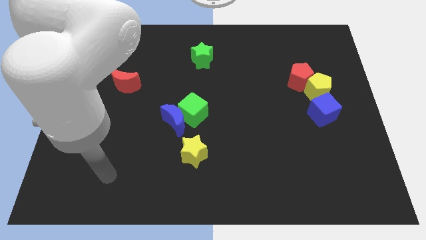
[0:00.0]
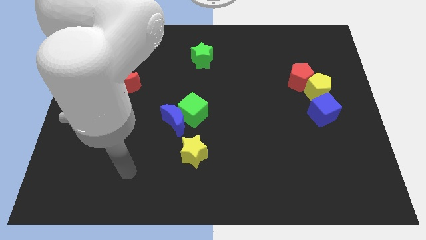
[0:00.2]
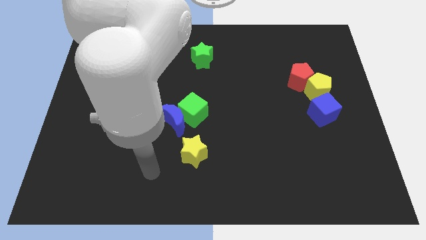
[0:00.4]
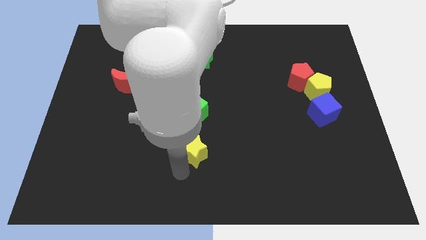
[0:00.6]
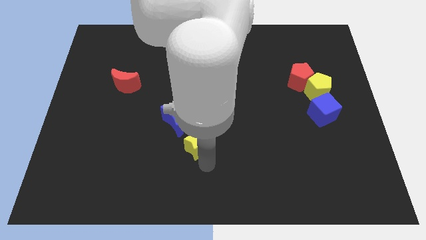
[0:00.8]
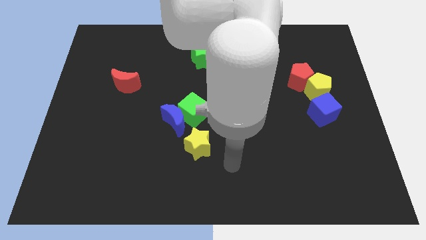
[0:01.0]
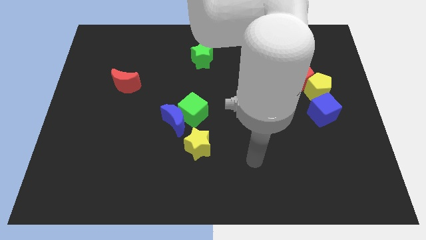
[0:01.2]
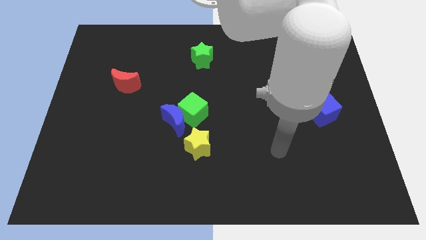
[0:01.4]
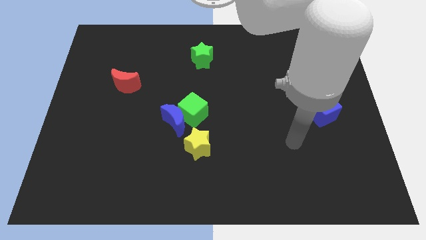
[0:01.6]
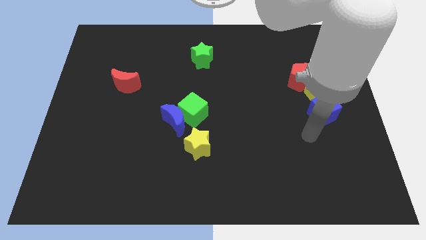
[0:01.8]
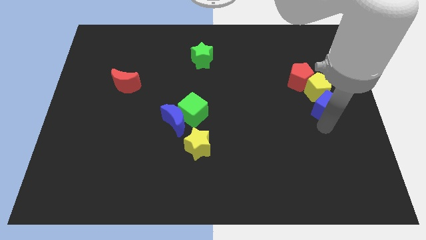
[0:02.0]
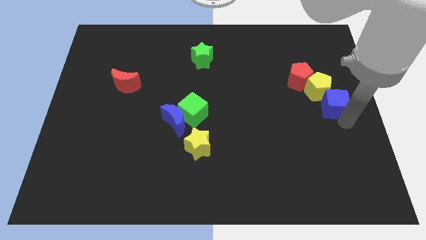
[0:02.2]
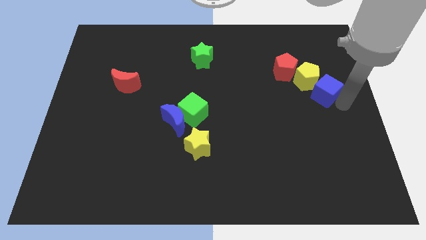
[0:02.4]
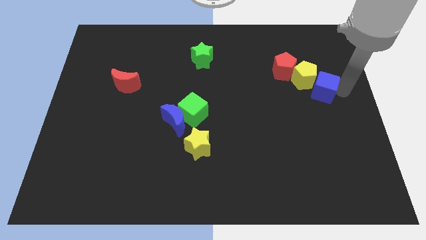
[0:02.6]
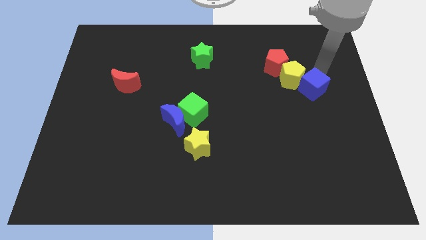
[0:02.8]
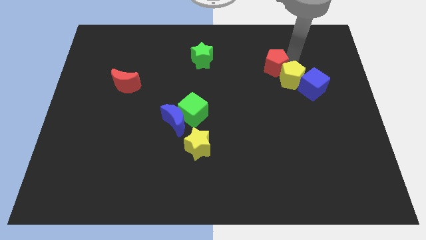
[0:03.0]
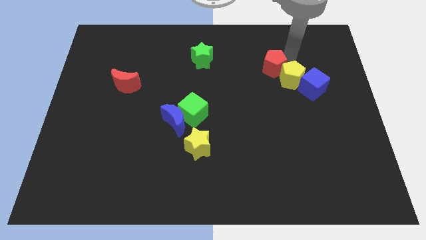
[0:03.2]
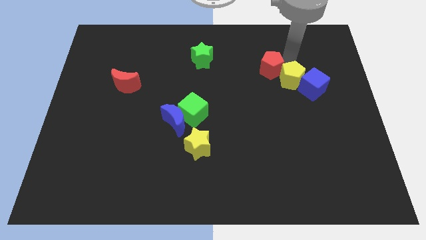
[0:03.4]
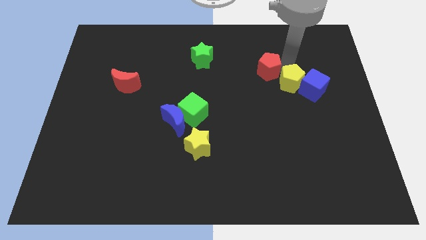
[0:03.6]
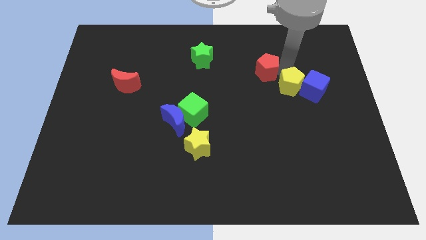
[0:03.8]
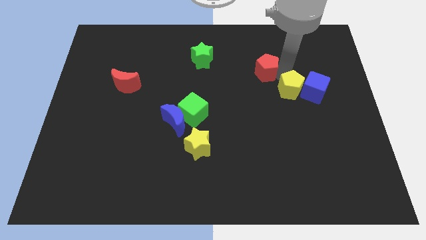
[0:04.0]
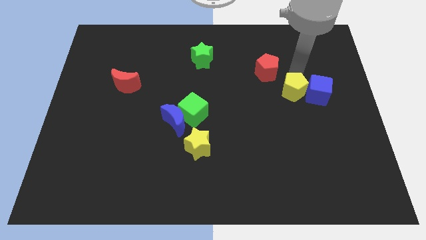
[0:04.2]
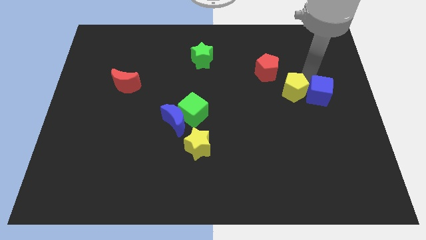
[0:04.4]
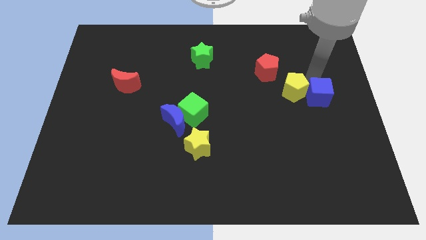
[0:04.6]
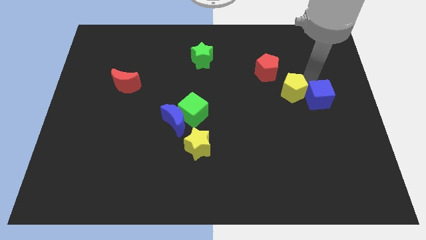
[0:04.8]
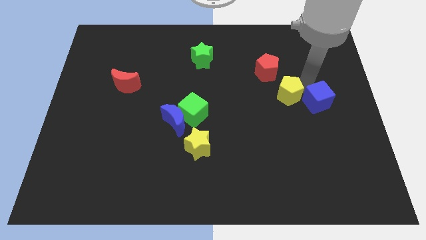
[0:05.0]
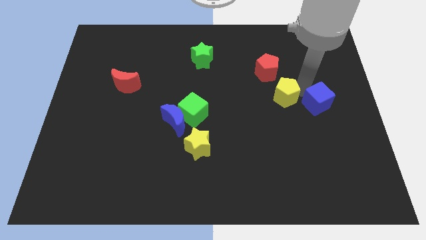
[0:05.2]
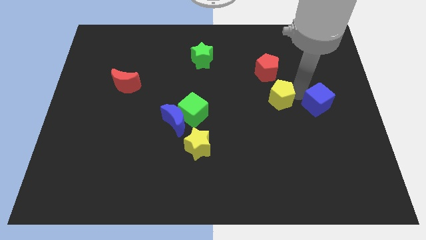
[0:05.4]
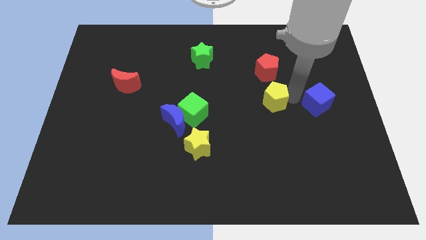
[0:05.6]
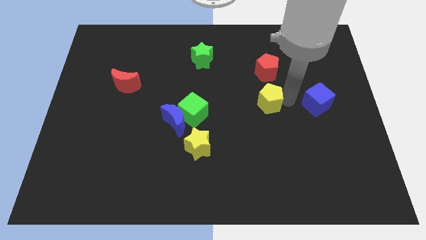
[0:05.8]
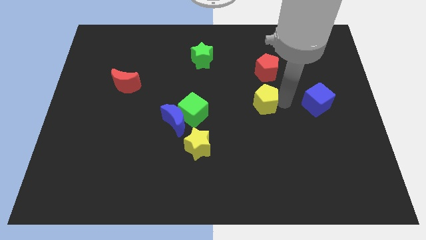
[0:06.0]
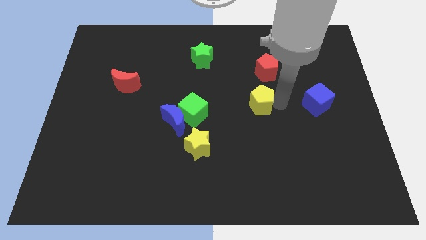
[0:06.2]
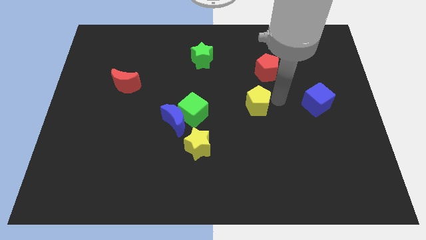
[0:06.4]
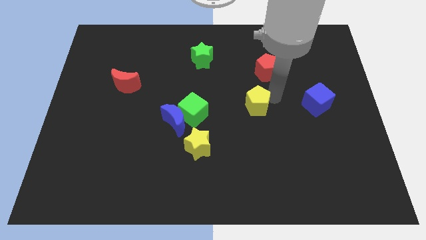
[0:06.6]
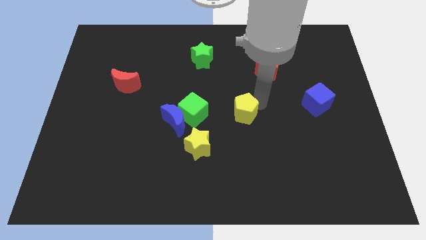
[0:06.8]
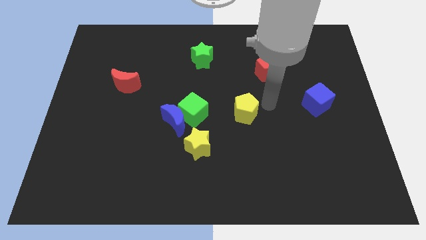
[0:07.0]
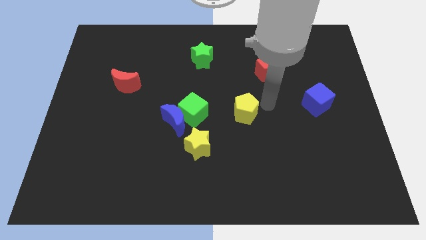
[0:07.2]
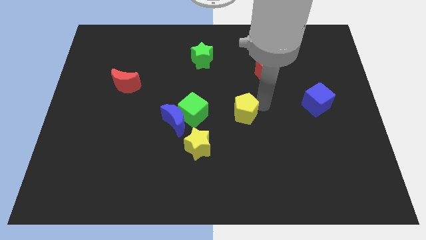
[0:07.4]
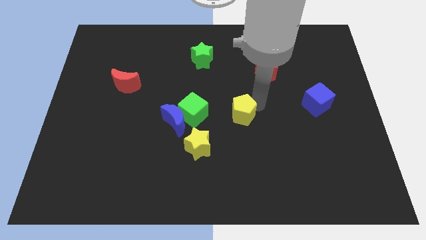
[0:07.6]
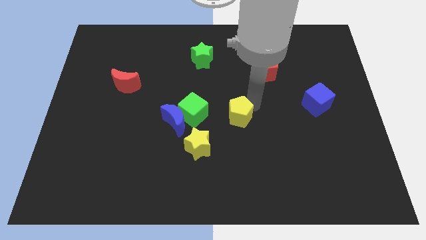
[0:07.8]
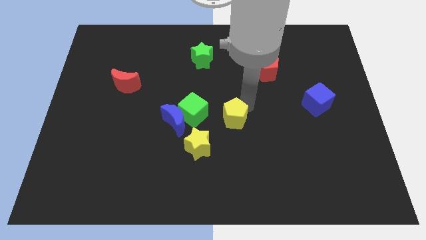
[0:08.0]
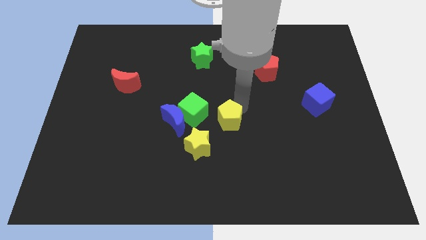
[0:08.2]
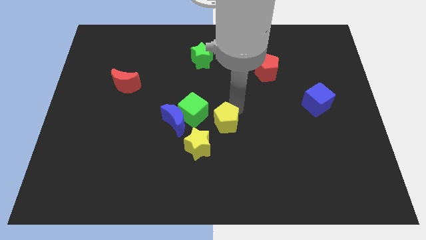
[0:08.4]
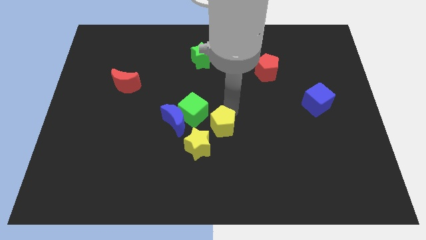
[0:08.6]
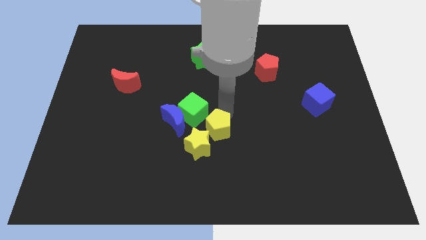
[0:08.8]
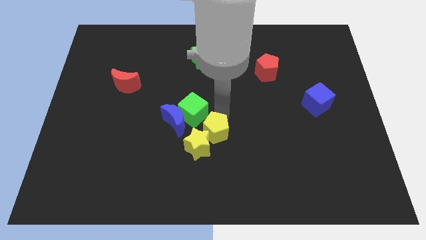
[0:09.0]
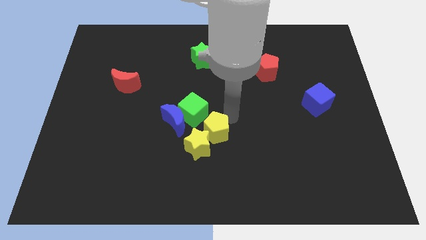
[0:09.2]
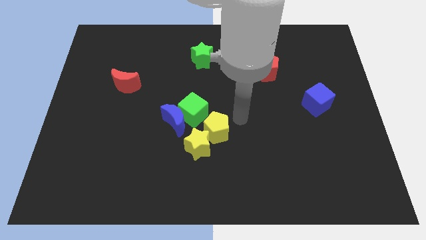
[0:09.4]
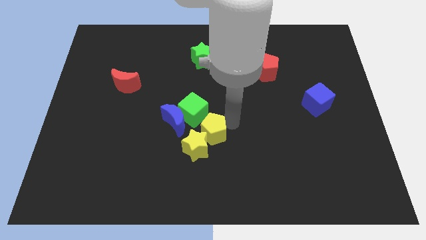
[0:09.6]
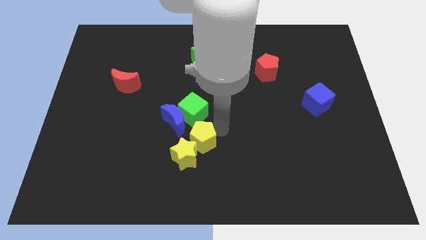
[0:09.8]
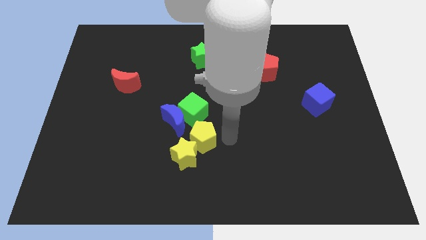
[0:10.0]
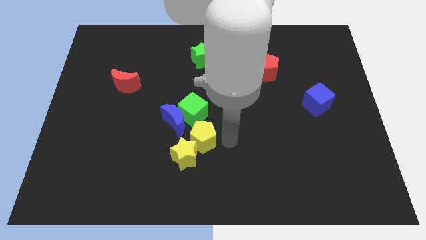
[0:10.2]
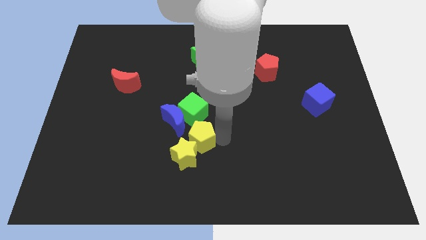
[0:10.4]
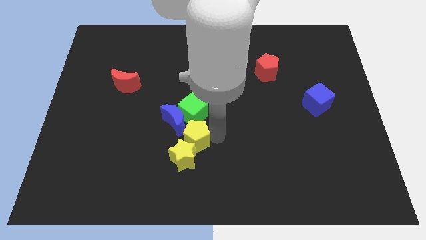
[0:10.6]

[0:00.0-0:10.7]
put the yellow pentagon to the bottom of the blue moon

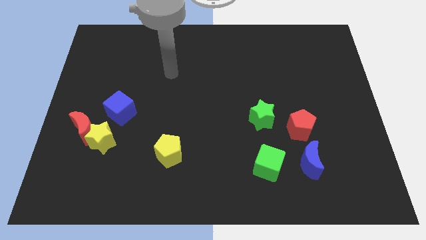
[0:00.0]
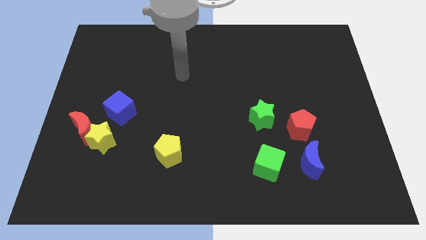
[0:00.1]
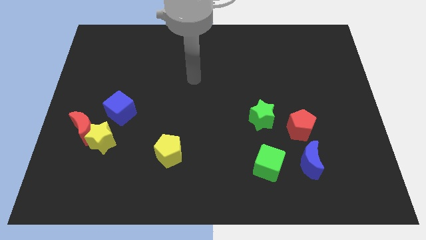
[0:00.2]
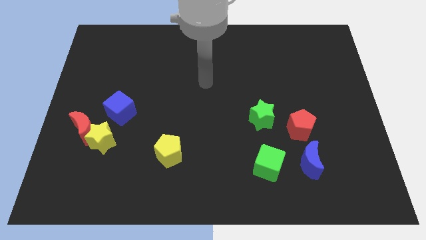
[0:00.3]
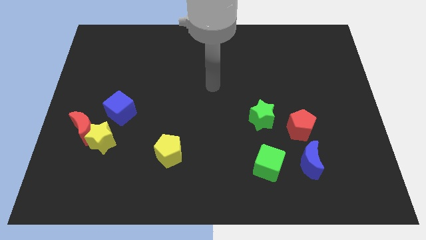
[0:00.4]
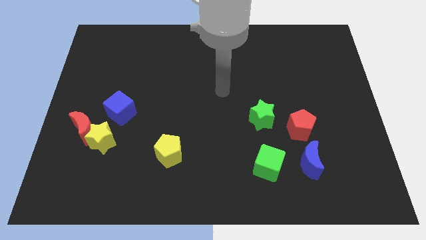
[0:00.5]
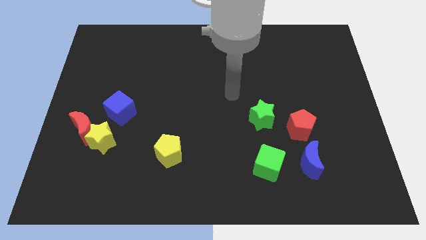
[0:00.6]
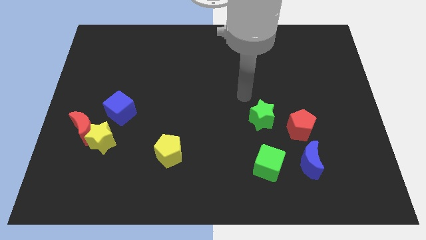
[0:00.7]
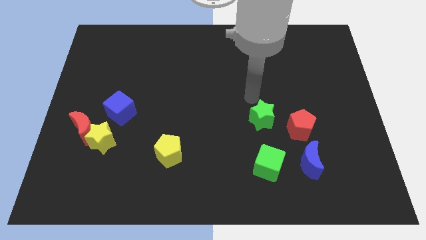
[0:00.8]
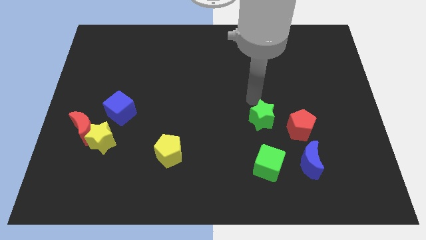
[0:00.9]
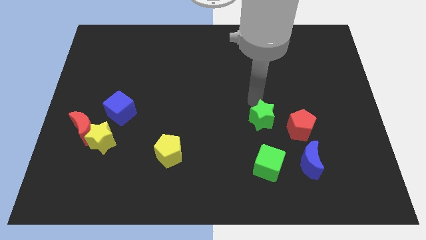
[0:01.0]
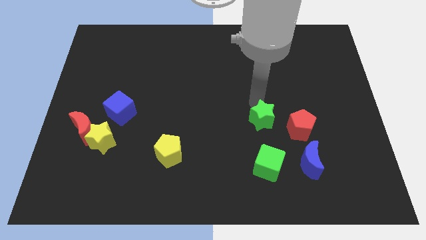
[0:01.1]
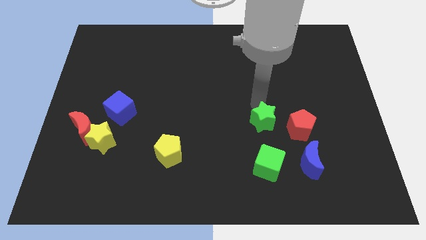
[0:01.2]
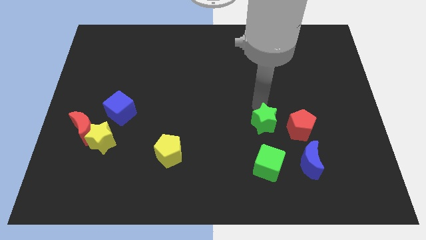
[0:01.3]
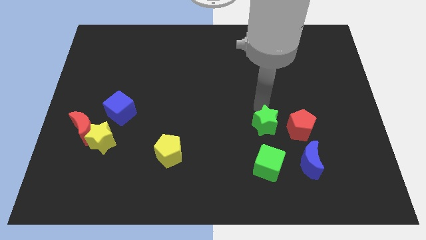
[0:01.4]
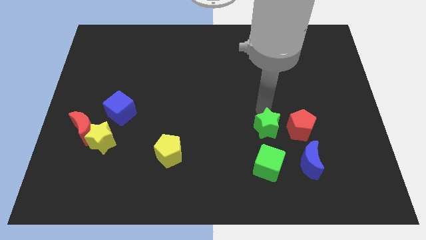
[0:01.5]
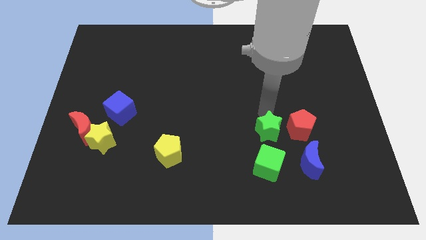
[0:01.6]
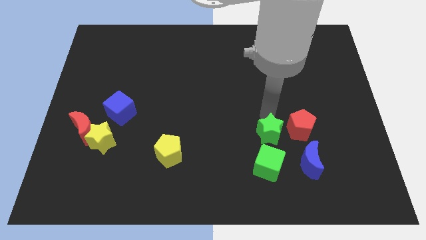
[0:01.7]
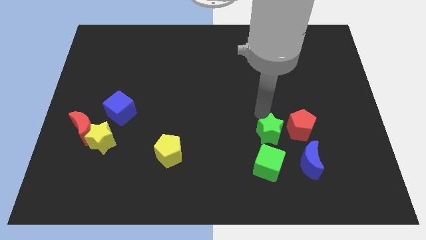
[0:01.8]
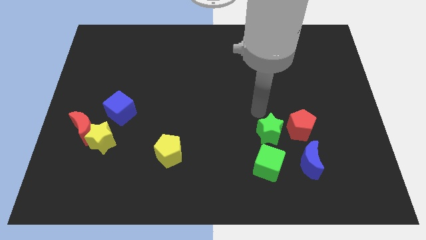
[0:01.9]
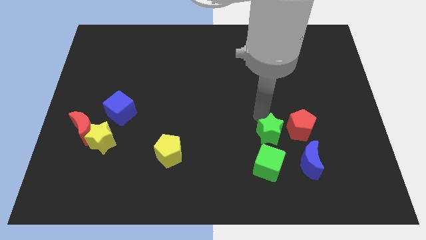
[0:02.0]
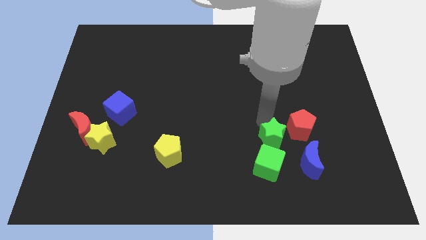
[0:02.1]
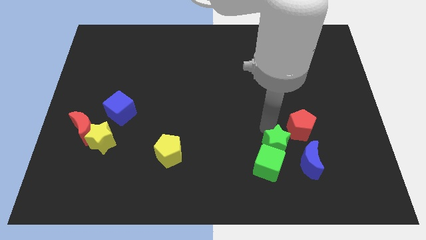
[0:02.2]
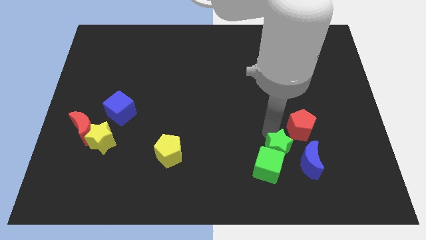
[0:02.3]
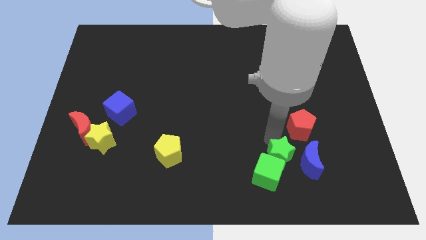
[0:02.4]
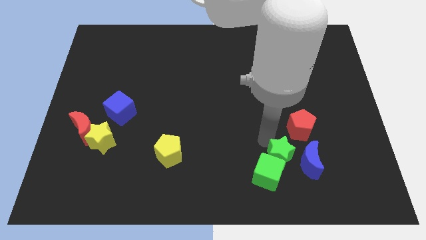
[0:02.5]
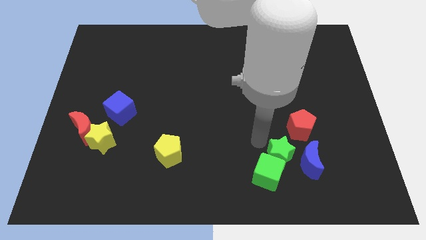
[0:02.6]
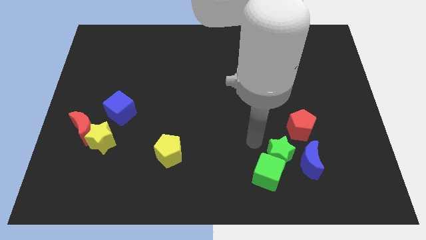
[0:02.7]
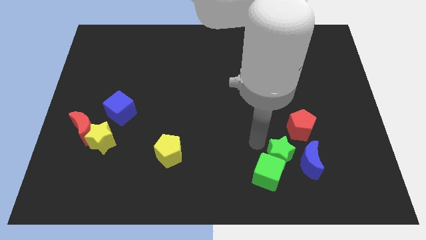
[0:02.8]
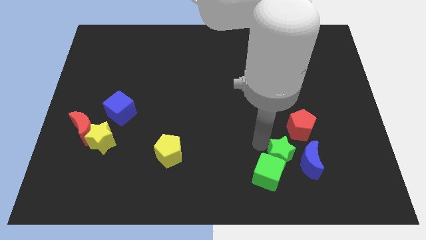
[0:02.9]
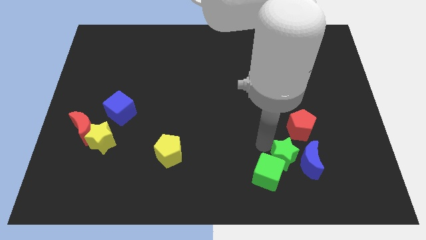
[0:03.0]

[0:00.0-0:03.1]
move the green star to the bottom side of the red pentagon
